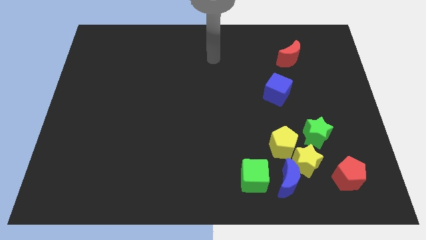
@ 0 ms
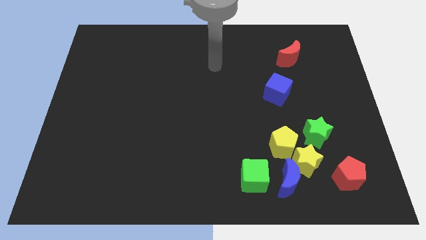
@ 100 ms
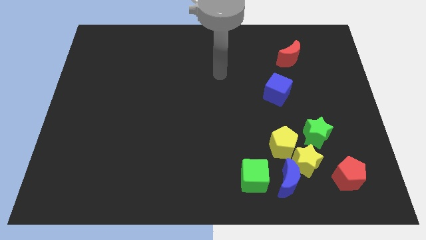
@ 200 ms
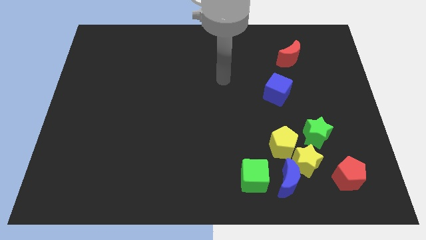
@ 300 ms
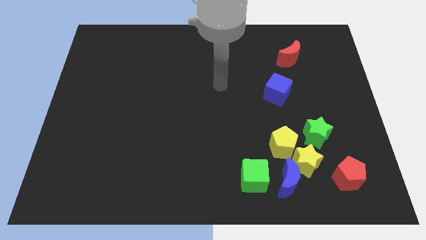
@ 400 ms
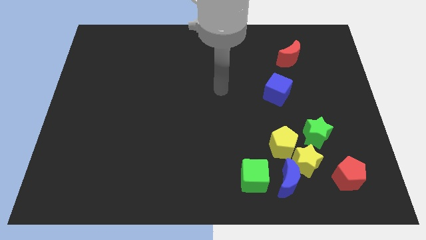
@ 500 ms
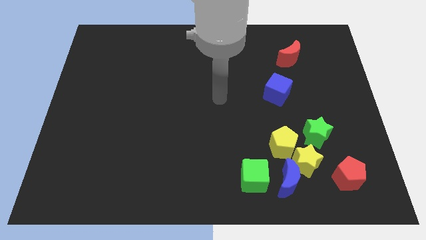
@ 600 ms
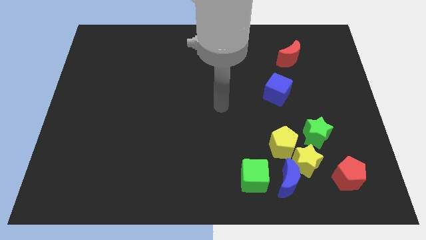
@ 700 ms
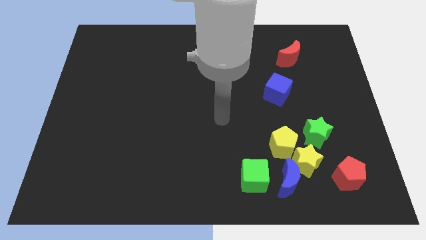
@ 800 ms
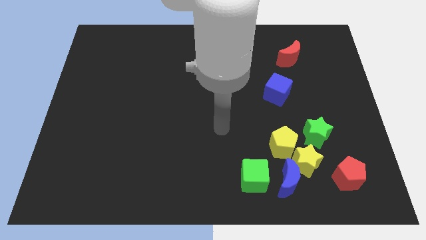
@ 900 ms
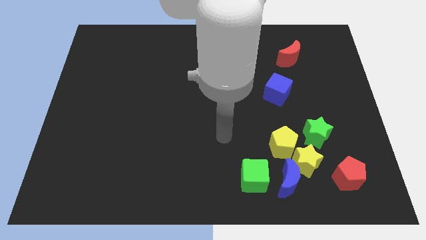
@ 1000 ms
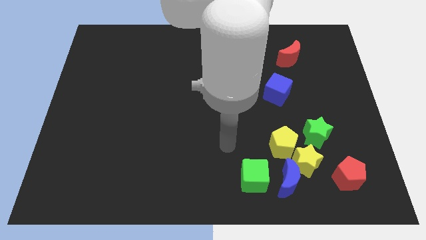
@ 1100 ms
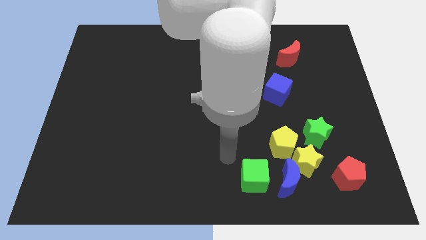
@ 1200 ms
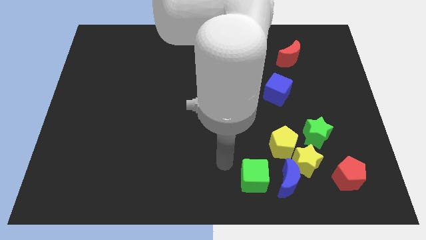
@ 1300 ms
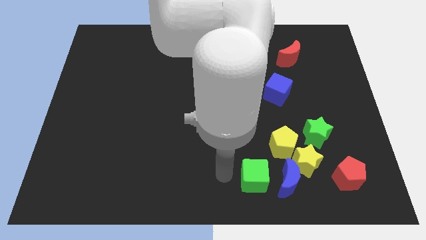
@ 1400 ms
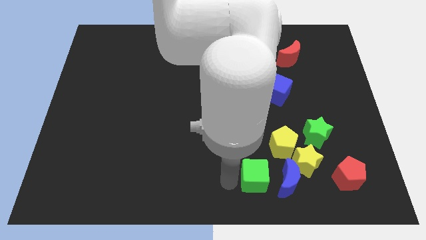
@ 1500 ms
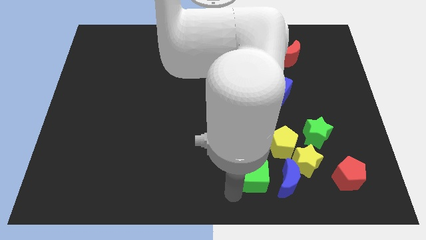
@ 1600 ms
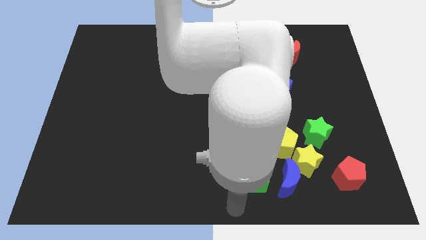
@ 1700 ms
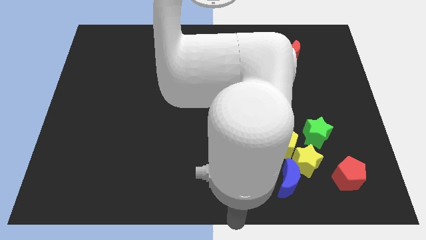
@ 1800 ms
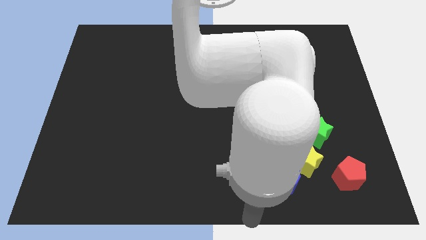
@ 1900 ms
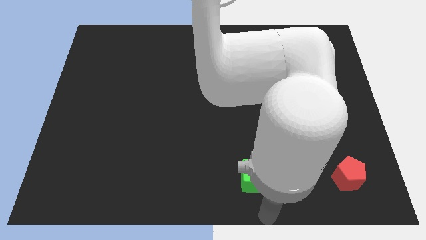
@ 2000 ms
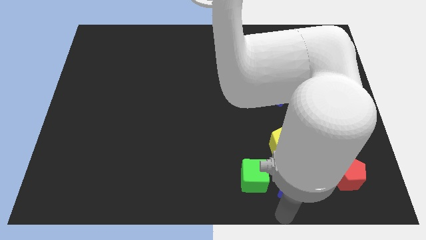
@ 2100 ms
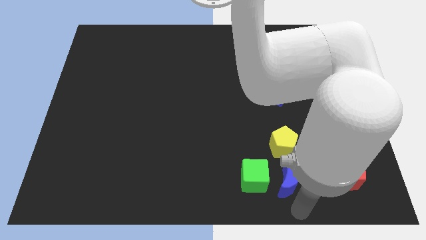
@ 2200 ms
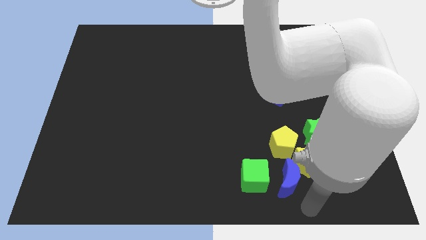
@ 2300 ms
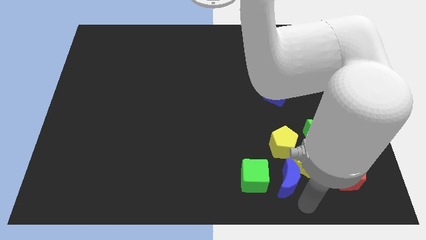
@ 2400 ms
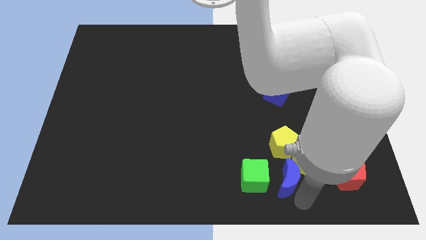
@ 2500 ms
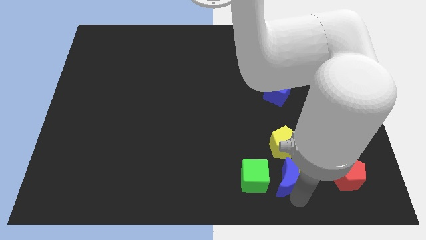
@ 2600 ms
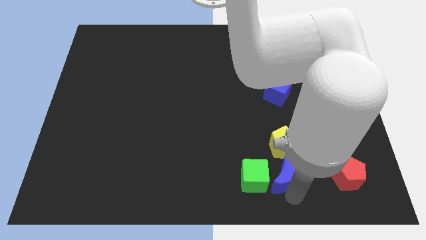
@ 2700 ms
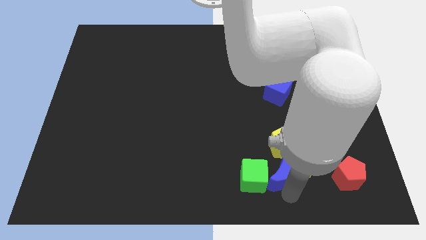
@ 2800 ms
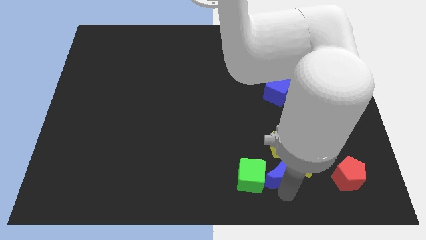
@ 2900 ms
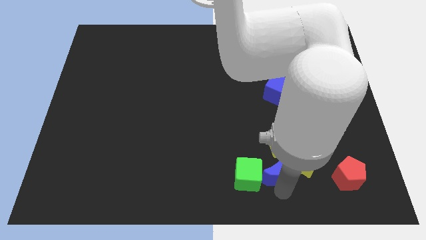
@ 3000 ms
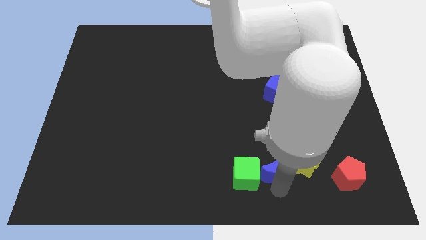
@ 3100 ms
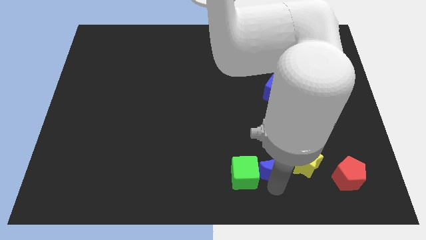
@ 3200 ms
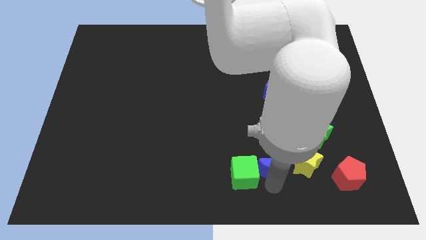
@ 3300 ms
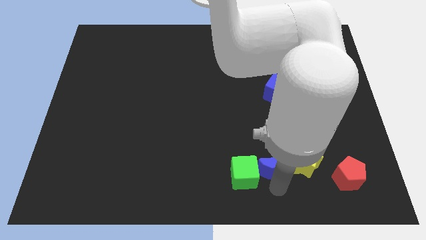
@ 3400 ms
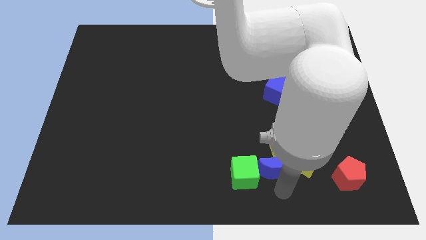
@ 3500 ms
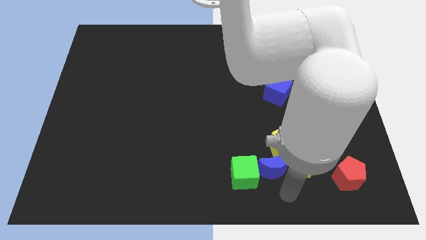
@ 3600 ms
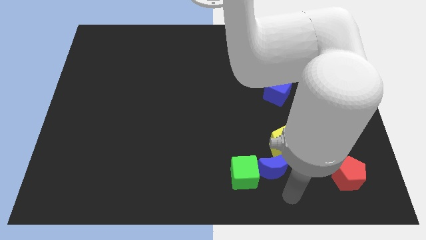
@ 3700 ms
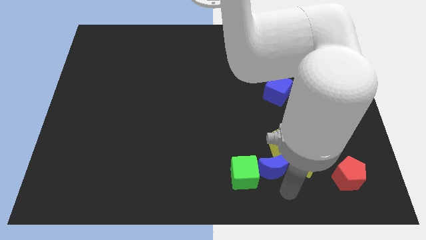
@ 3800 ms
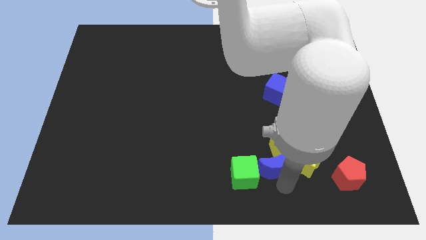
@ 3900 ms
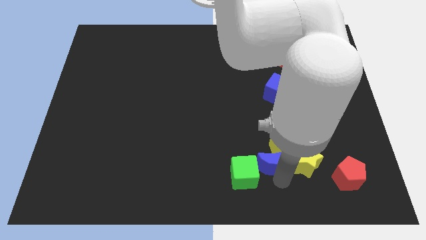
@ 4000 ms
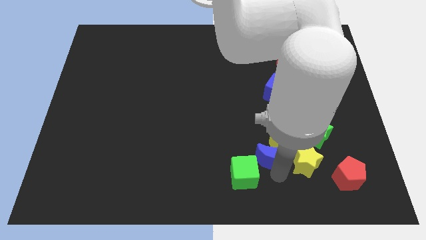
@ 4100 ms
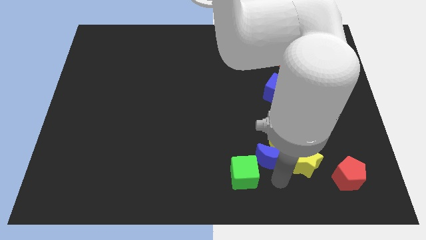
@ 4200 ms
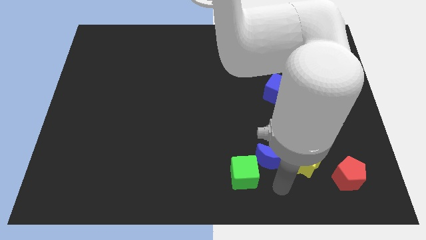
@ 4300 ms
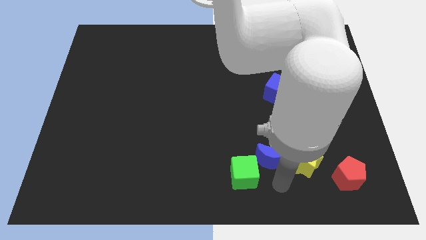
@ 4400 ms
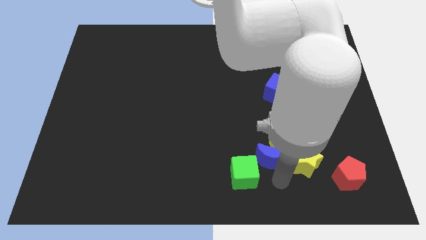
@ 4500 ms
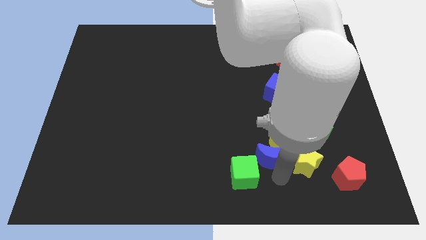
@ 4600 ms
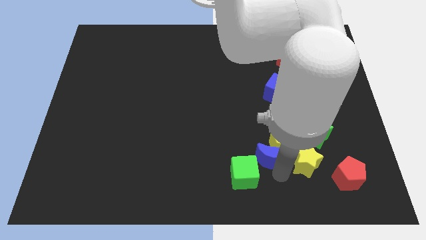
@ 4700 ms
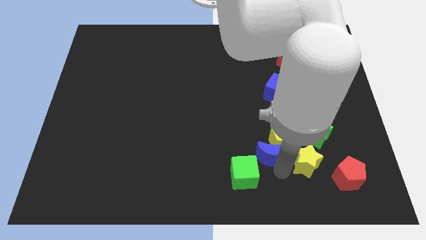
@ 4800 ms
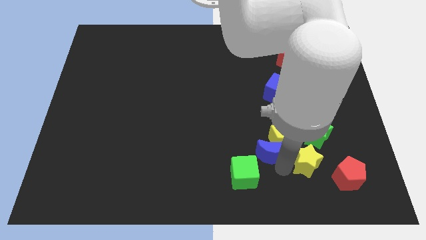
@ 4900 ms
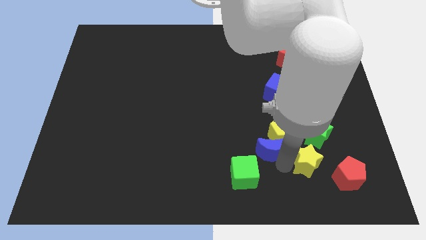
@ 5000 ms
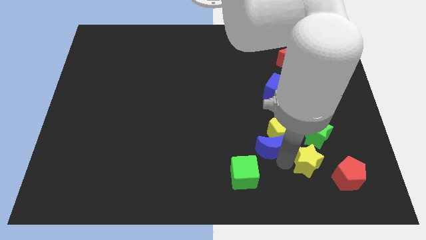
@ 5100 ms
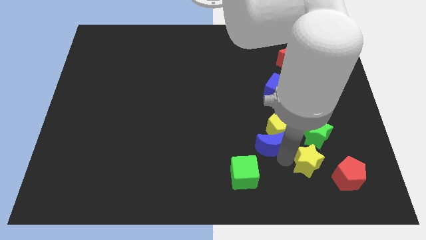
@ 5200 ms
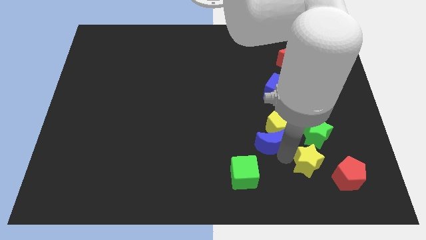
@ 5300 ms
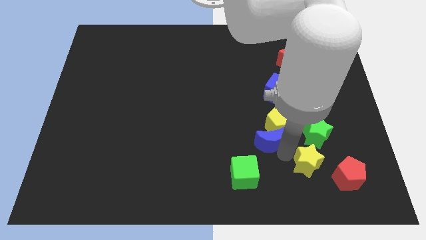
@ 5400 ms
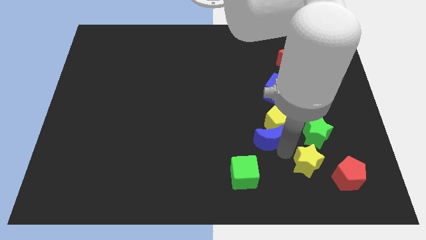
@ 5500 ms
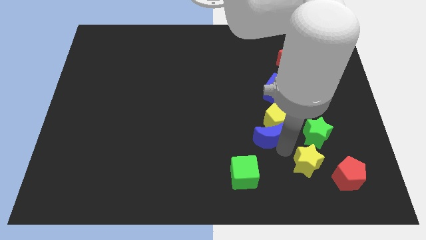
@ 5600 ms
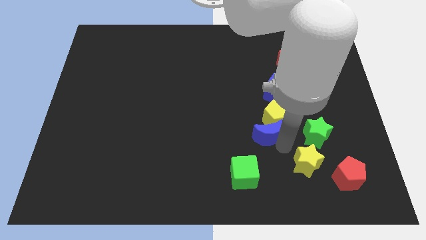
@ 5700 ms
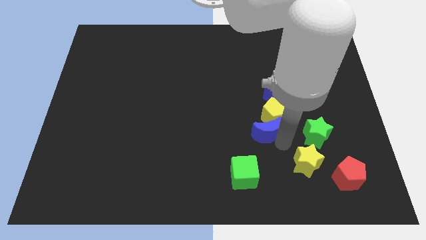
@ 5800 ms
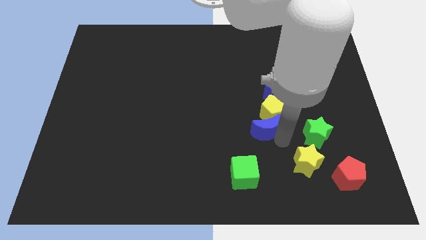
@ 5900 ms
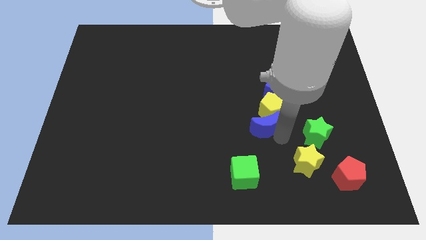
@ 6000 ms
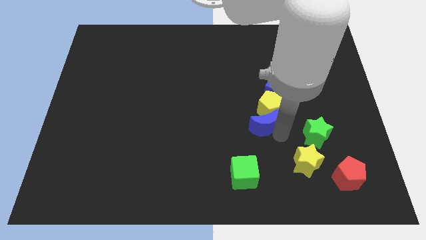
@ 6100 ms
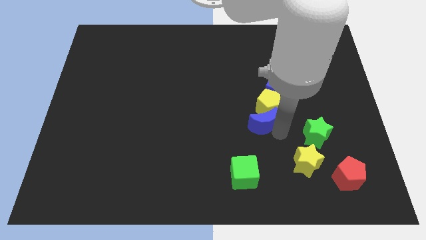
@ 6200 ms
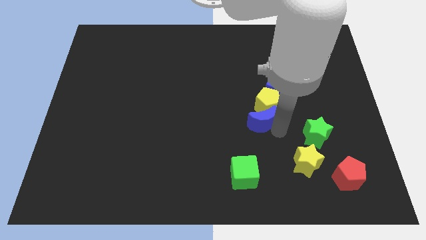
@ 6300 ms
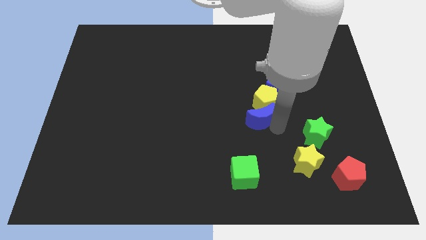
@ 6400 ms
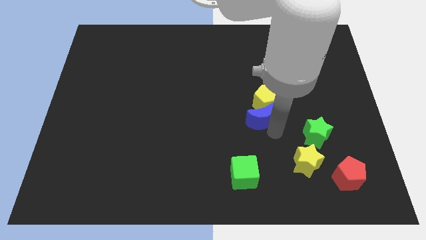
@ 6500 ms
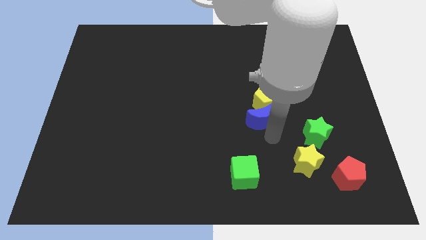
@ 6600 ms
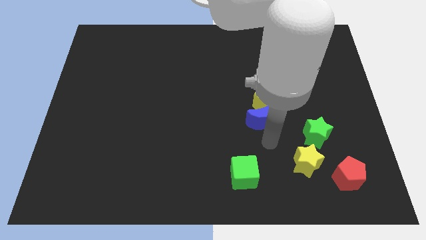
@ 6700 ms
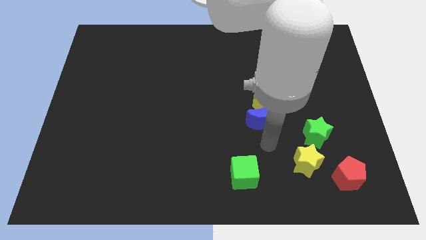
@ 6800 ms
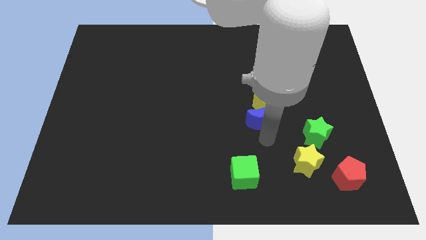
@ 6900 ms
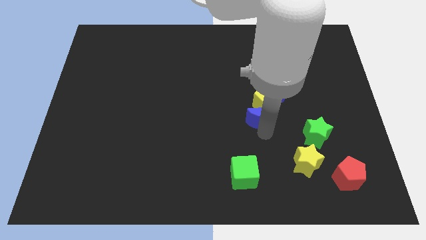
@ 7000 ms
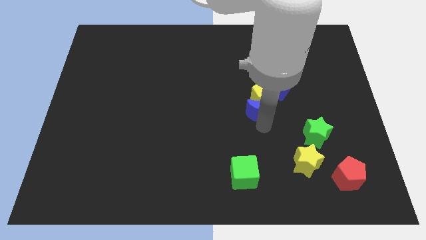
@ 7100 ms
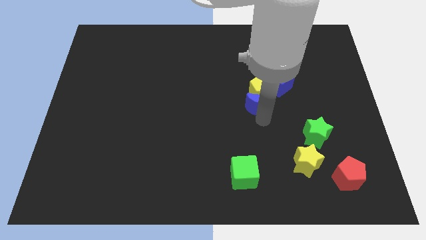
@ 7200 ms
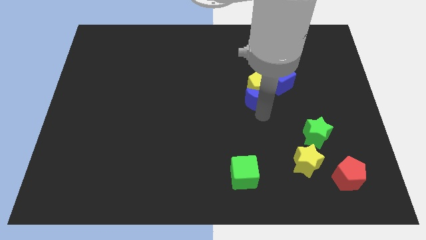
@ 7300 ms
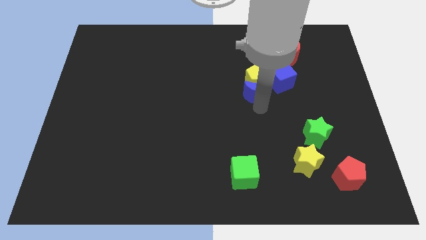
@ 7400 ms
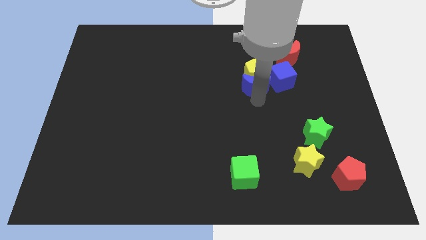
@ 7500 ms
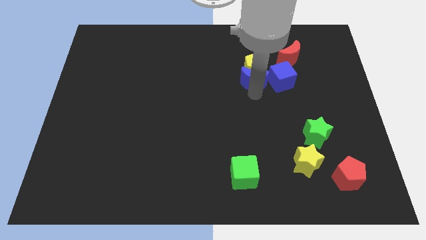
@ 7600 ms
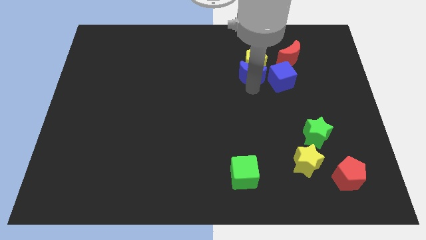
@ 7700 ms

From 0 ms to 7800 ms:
put the blue moon to the top left of the blue cube
